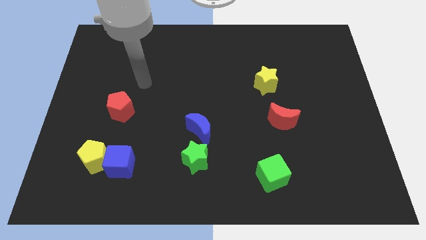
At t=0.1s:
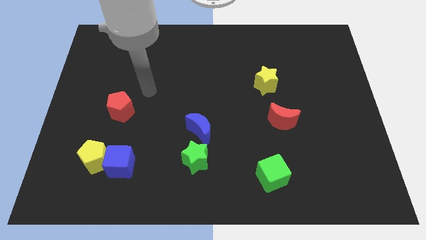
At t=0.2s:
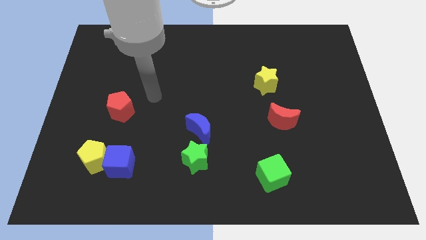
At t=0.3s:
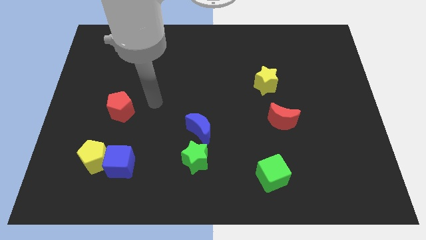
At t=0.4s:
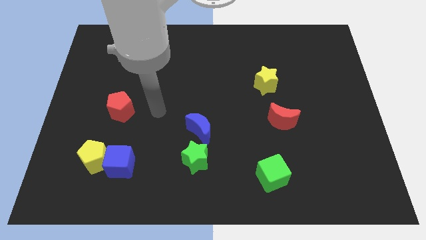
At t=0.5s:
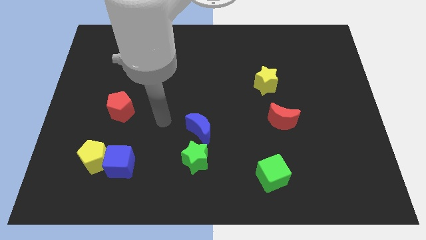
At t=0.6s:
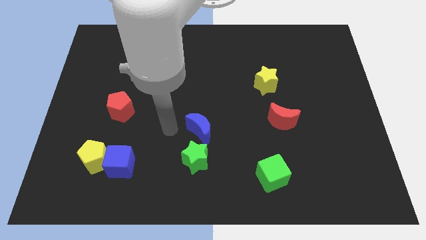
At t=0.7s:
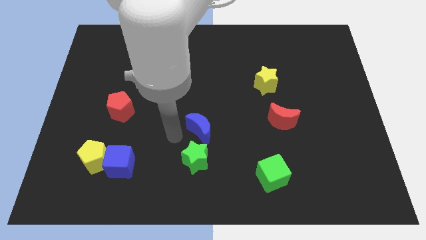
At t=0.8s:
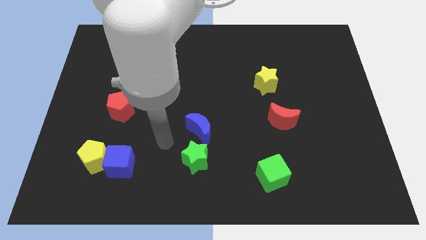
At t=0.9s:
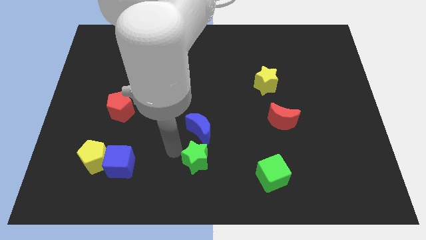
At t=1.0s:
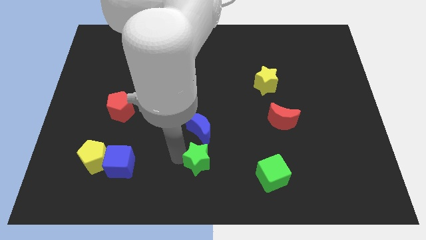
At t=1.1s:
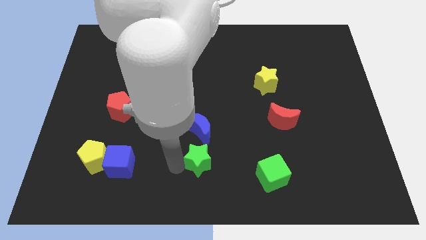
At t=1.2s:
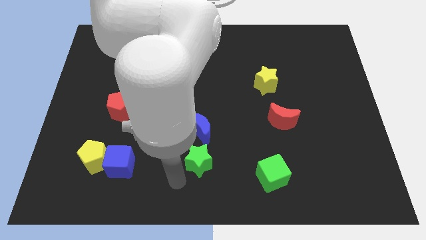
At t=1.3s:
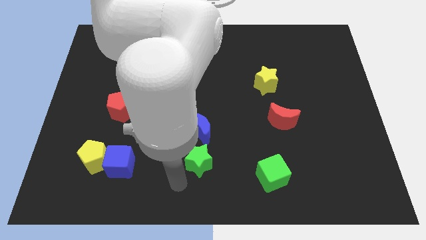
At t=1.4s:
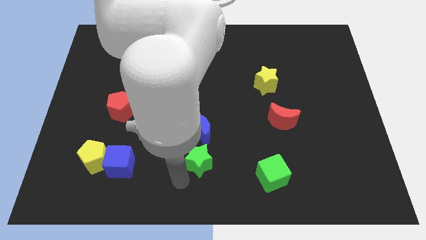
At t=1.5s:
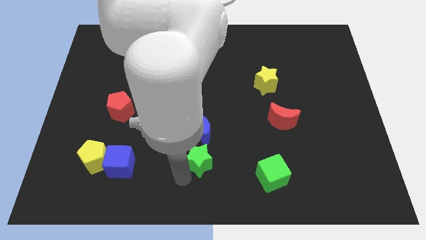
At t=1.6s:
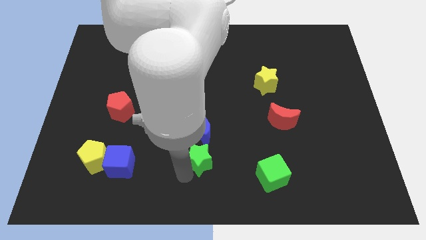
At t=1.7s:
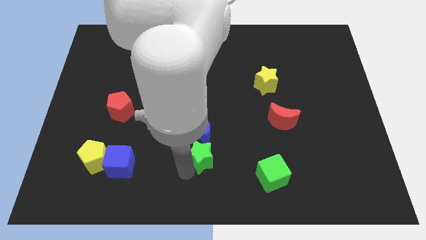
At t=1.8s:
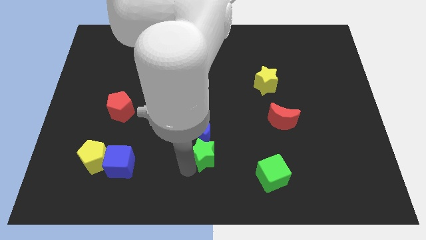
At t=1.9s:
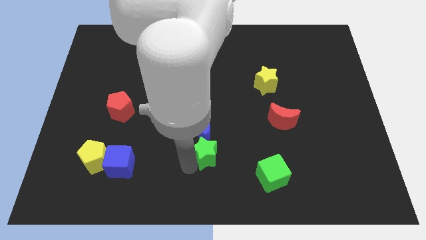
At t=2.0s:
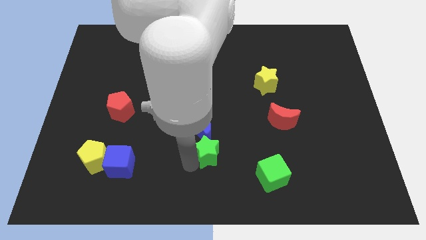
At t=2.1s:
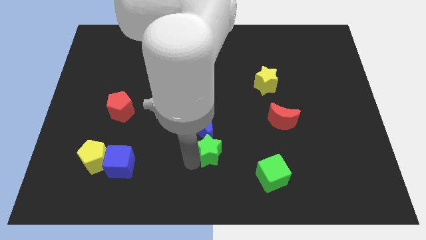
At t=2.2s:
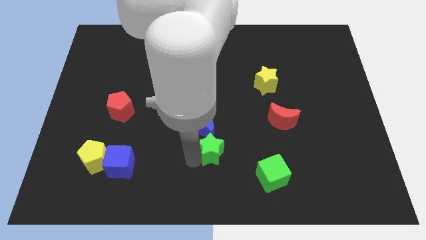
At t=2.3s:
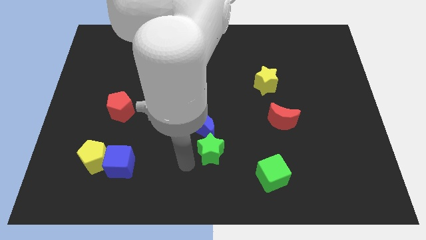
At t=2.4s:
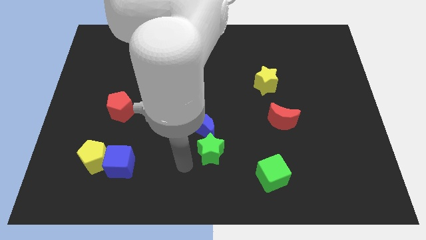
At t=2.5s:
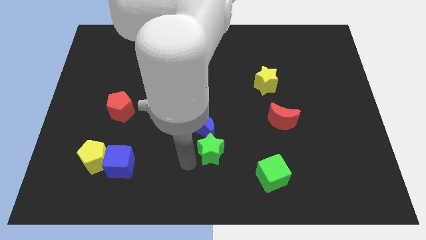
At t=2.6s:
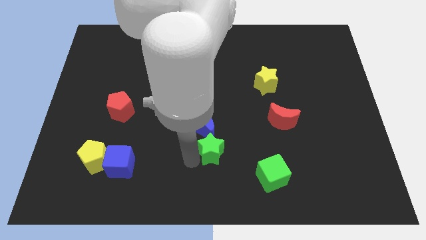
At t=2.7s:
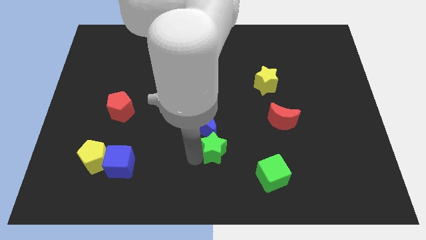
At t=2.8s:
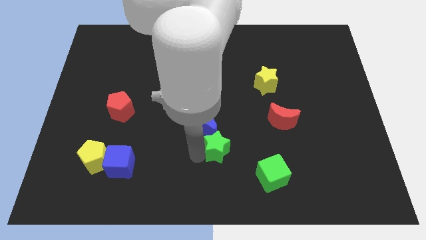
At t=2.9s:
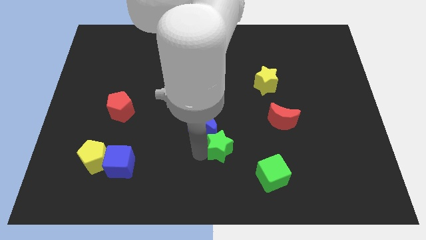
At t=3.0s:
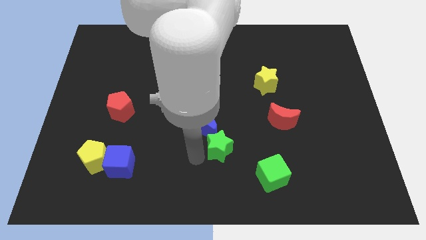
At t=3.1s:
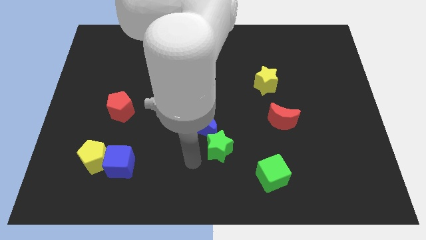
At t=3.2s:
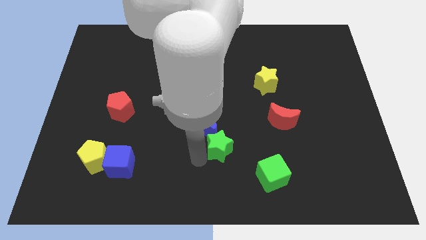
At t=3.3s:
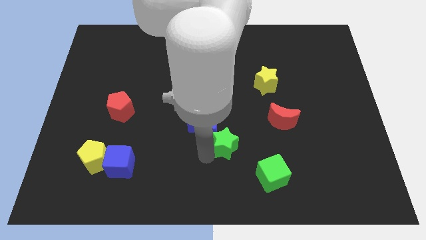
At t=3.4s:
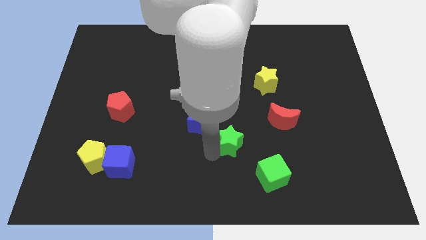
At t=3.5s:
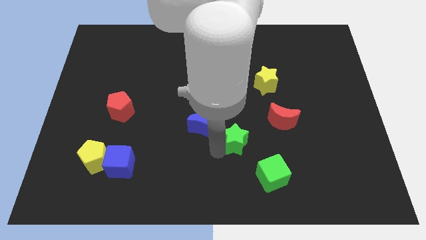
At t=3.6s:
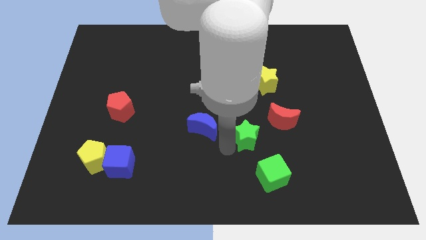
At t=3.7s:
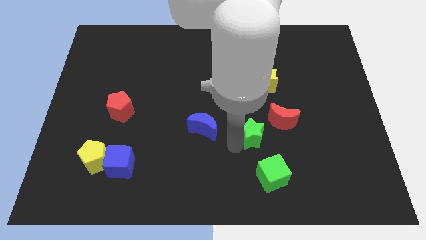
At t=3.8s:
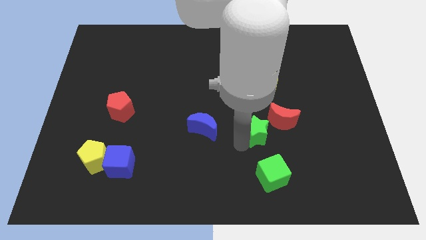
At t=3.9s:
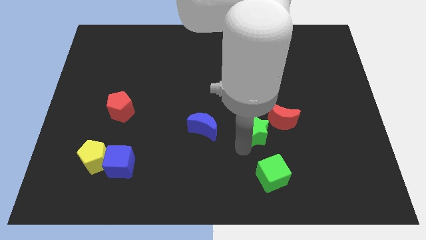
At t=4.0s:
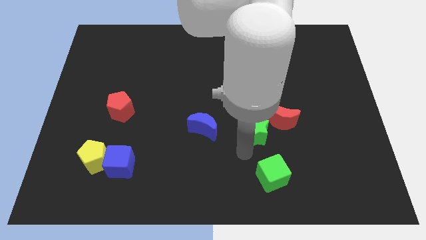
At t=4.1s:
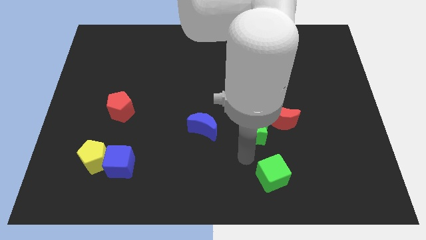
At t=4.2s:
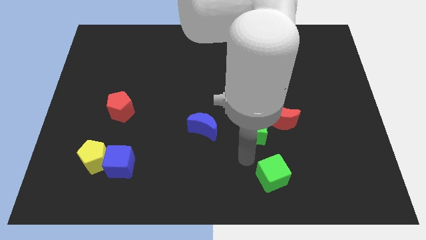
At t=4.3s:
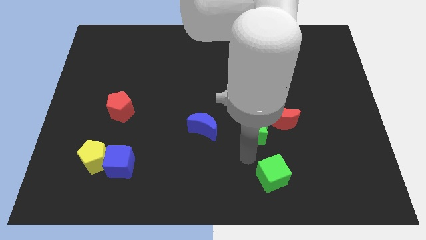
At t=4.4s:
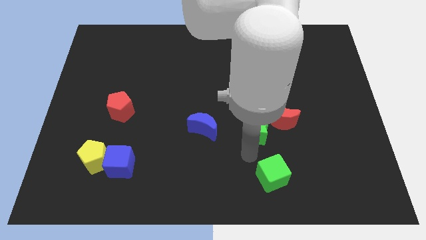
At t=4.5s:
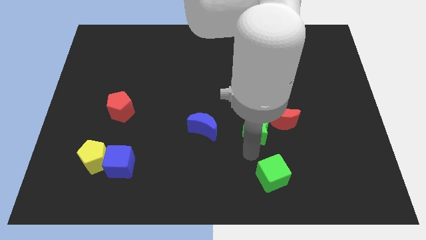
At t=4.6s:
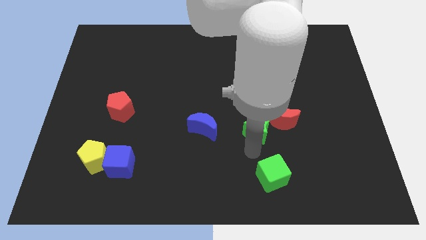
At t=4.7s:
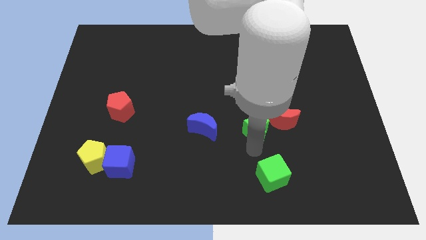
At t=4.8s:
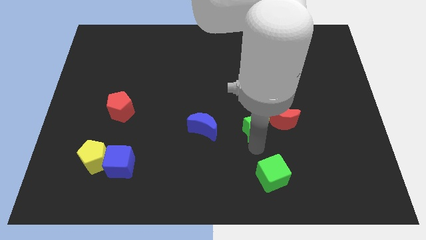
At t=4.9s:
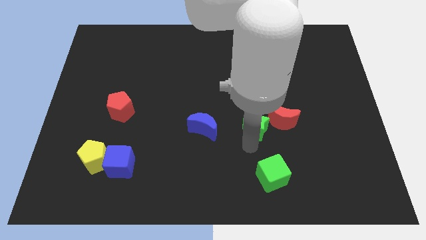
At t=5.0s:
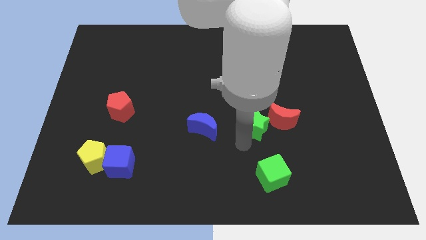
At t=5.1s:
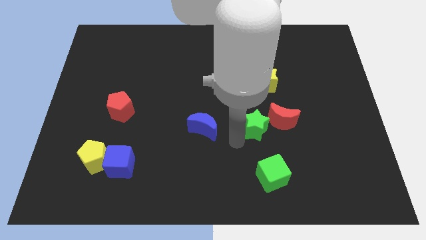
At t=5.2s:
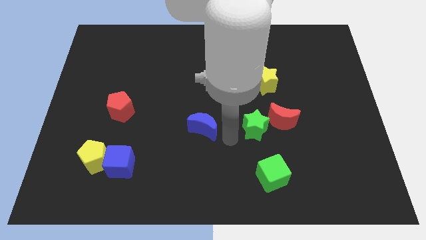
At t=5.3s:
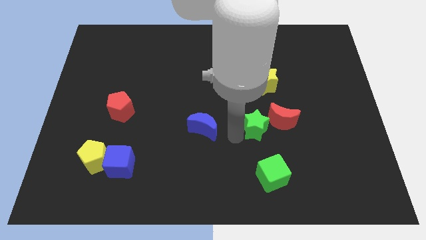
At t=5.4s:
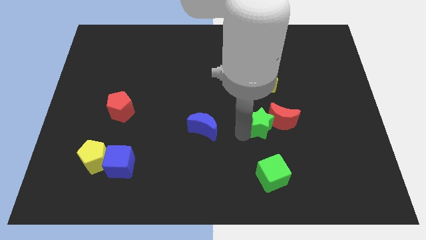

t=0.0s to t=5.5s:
push the green star close to the red moon
